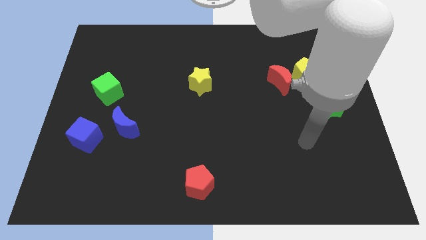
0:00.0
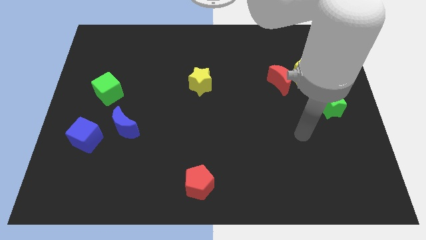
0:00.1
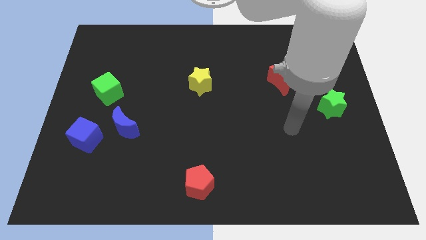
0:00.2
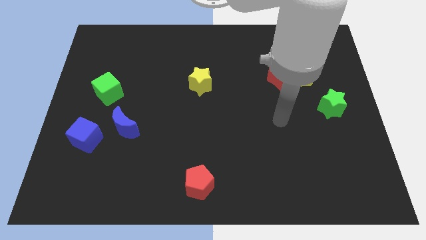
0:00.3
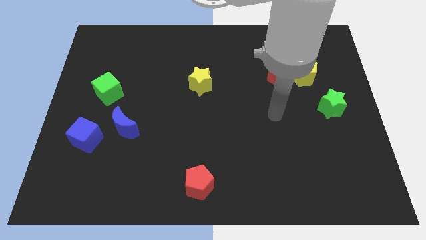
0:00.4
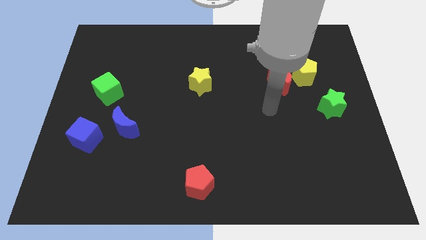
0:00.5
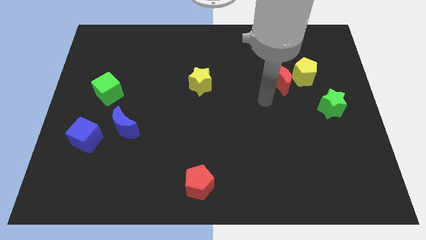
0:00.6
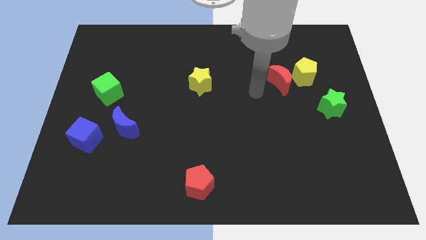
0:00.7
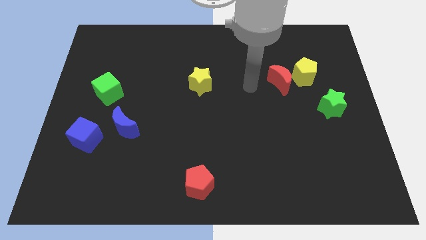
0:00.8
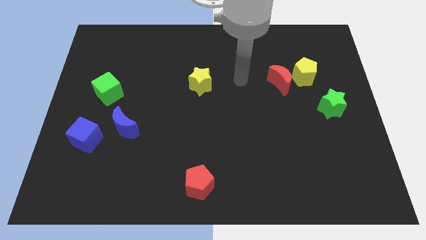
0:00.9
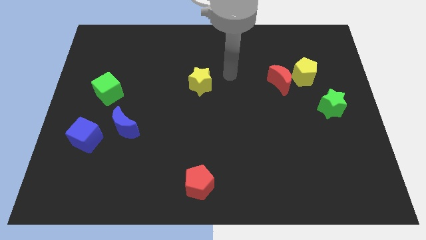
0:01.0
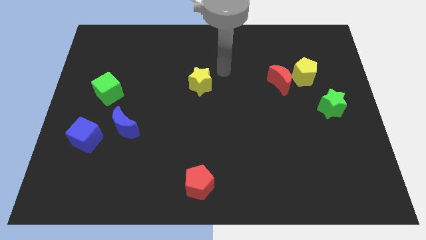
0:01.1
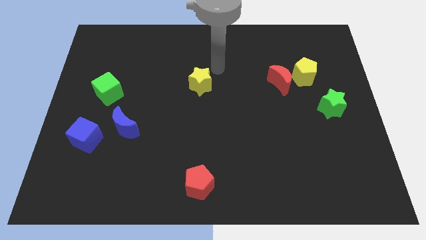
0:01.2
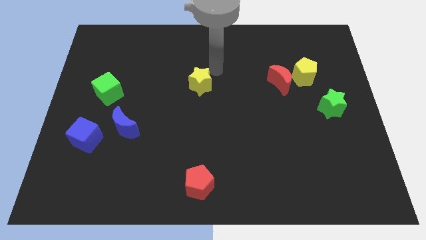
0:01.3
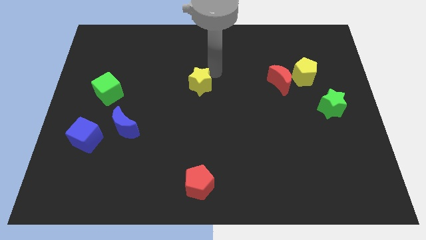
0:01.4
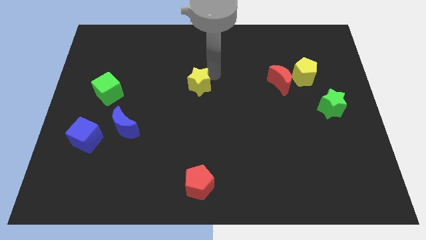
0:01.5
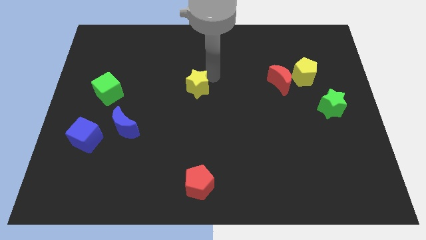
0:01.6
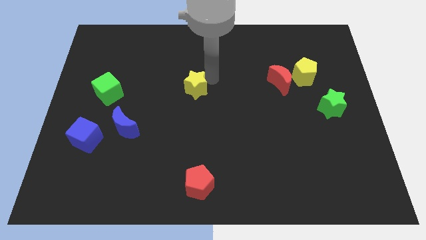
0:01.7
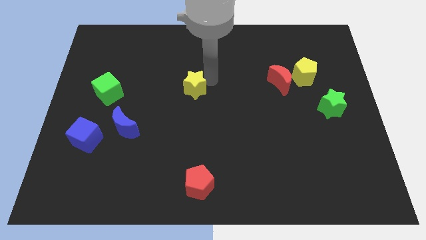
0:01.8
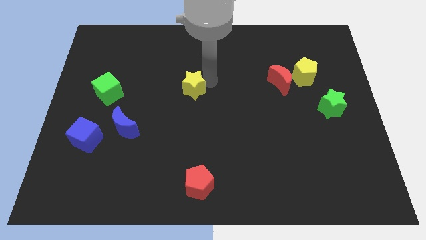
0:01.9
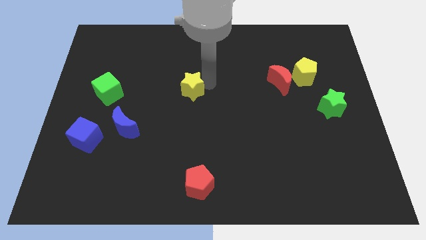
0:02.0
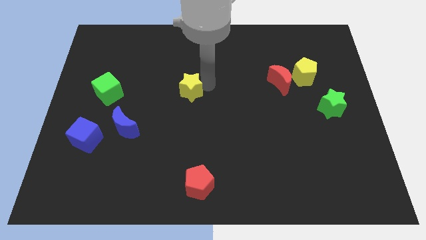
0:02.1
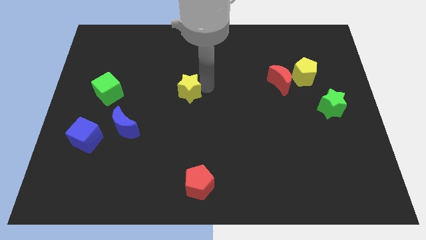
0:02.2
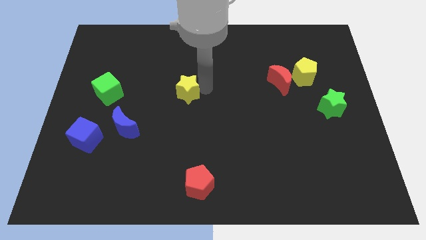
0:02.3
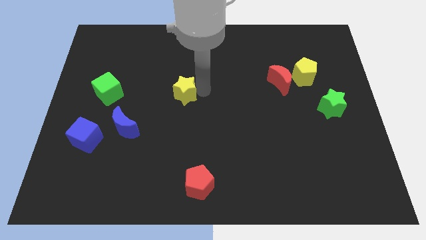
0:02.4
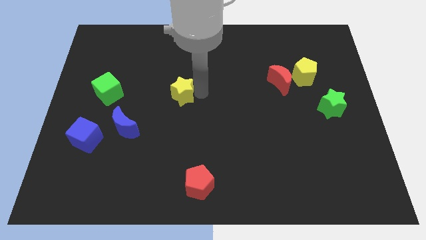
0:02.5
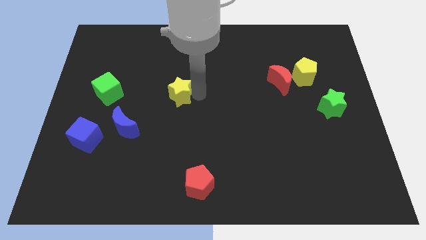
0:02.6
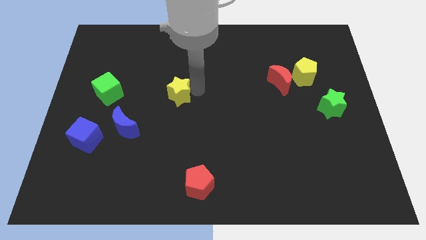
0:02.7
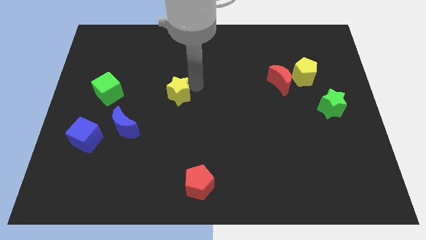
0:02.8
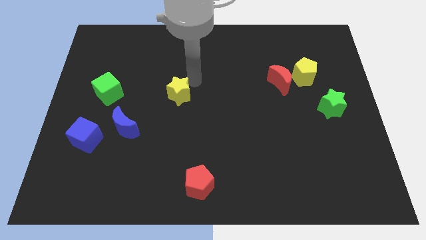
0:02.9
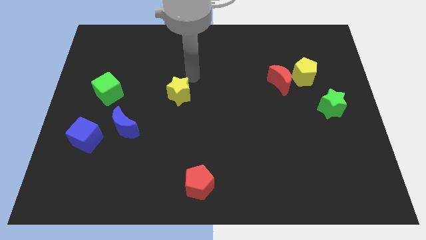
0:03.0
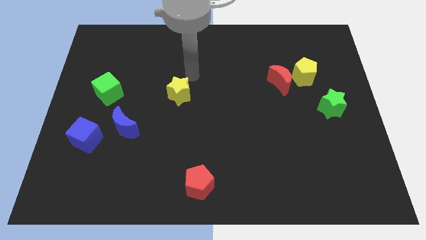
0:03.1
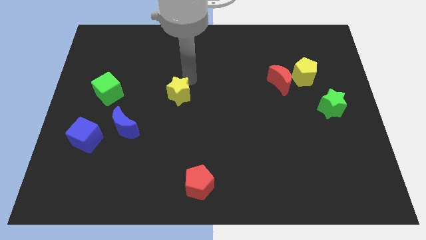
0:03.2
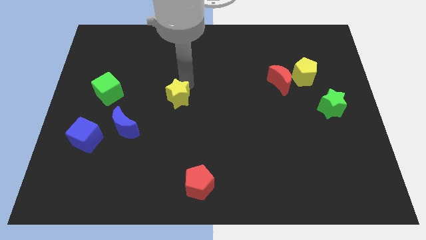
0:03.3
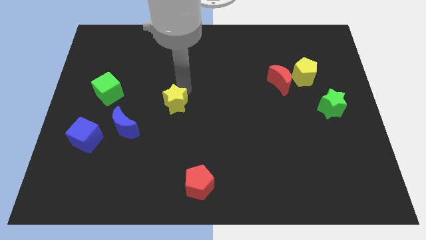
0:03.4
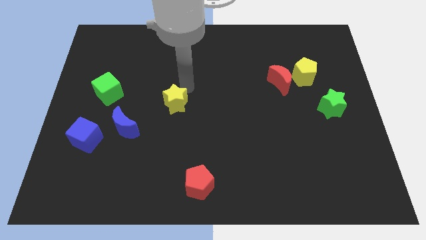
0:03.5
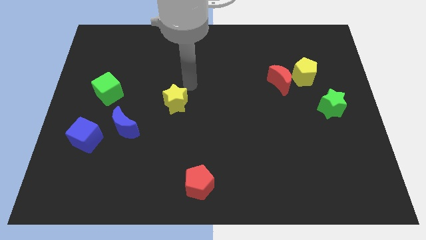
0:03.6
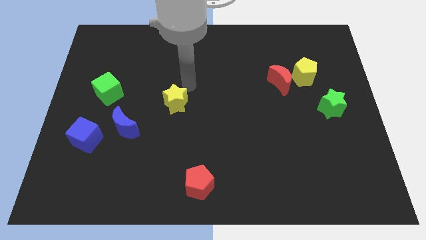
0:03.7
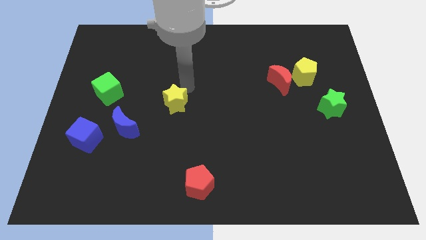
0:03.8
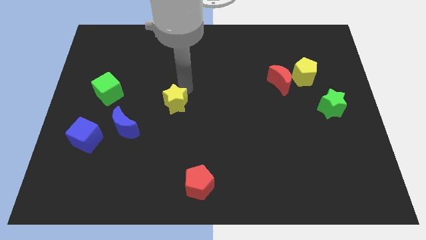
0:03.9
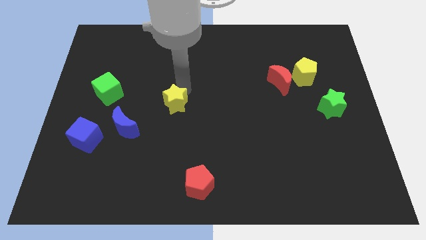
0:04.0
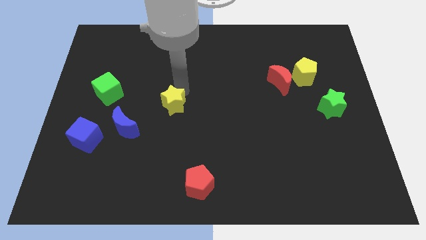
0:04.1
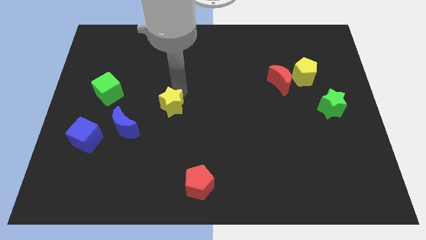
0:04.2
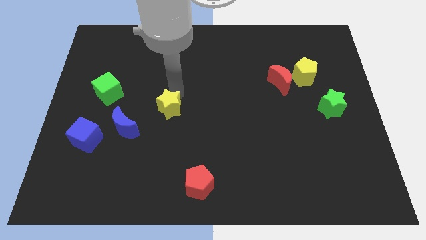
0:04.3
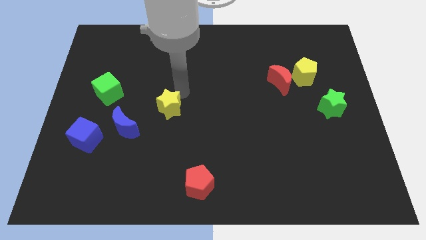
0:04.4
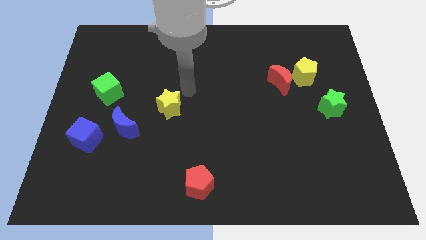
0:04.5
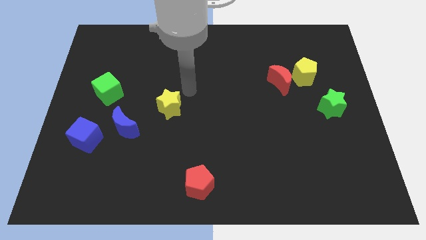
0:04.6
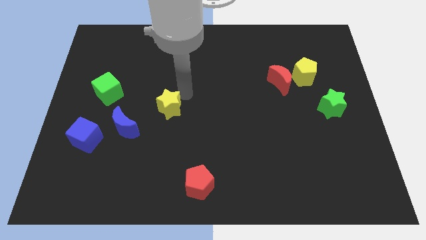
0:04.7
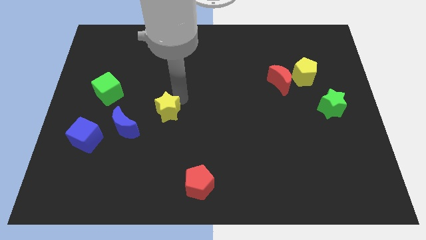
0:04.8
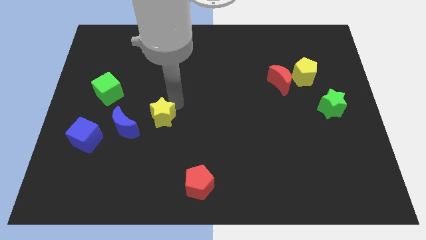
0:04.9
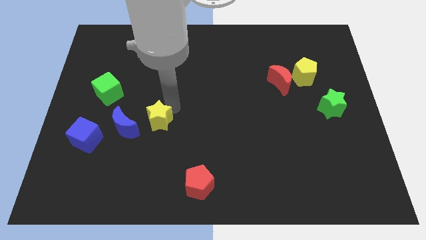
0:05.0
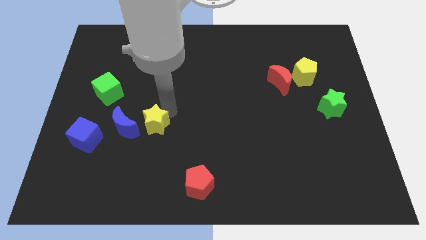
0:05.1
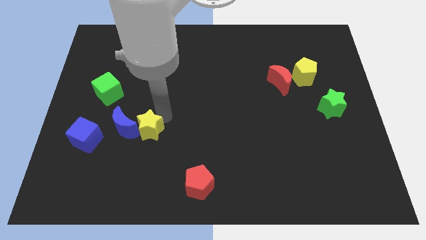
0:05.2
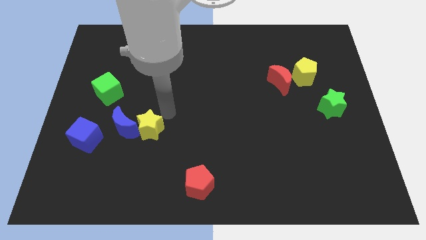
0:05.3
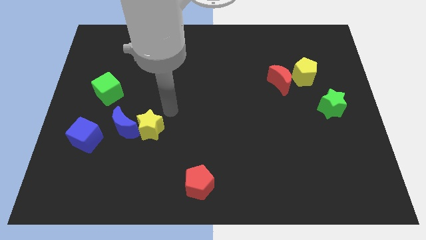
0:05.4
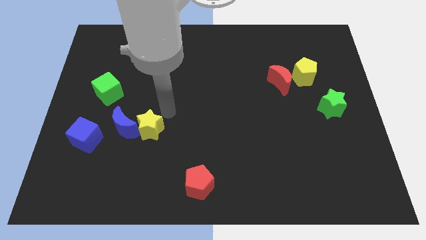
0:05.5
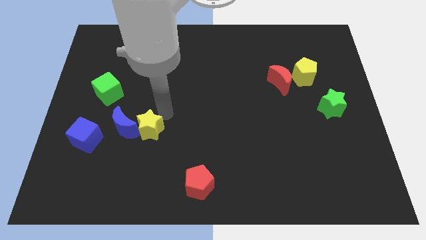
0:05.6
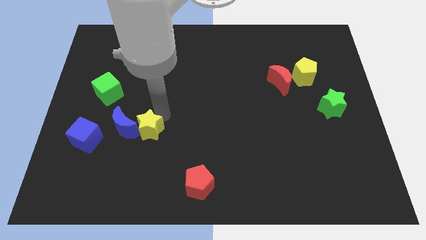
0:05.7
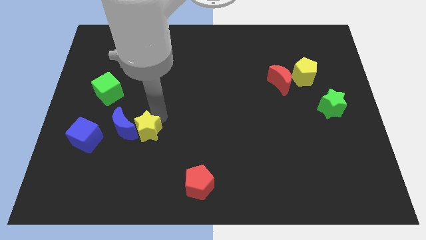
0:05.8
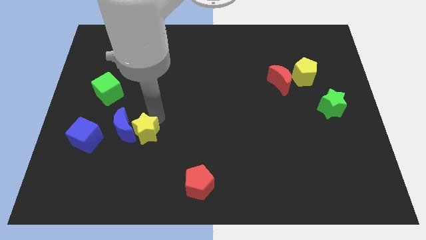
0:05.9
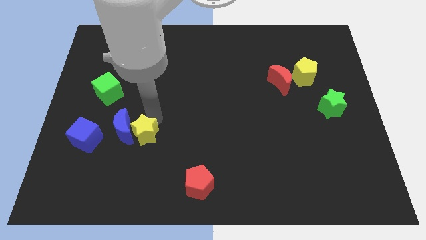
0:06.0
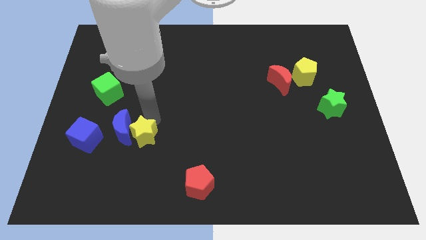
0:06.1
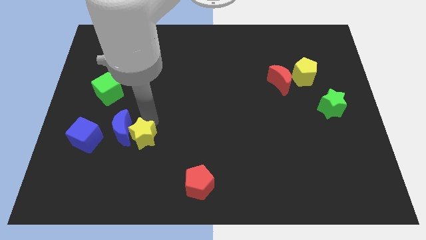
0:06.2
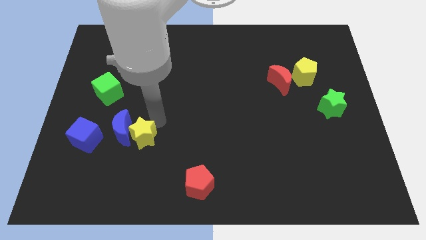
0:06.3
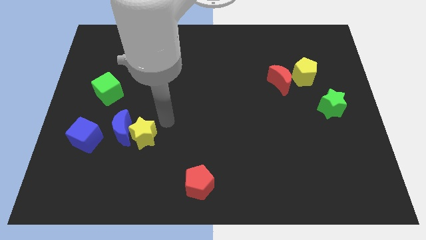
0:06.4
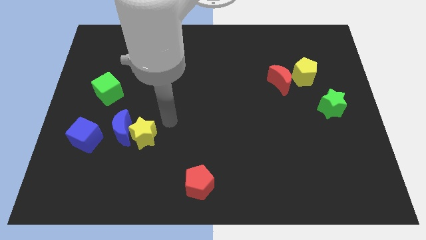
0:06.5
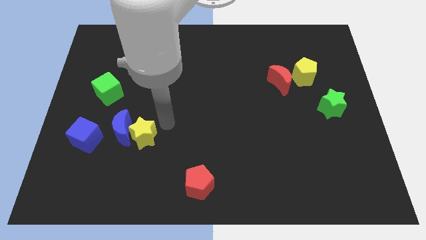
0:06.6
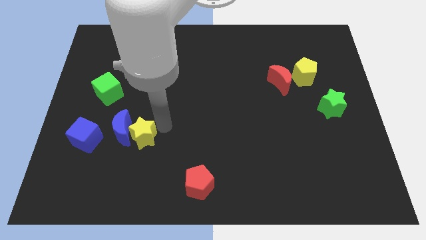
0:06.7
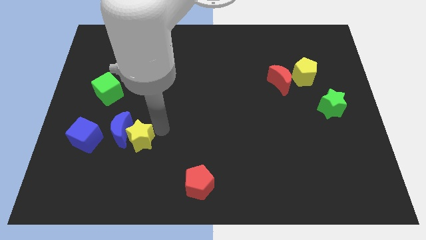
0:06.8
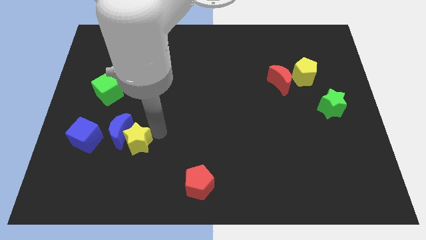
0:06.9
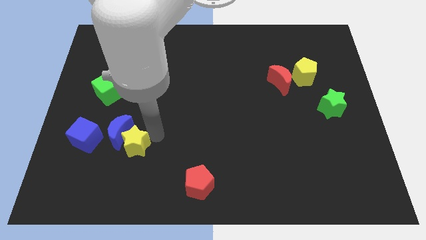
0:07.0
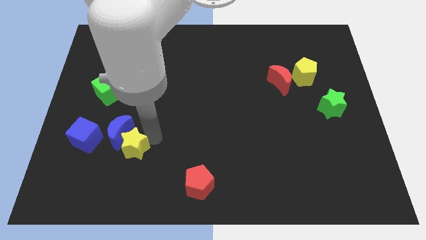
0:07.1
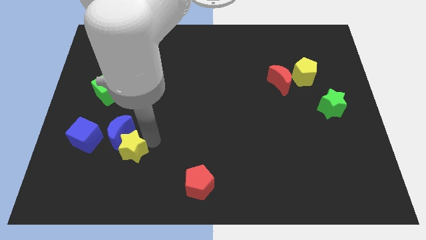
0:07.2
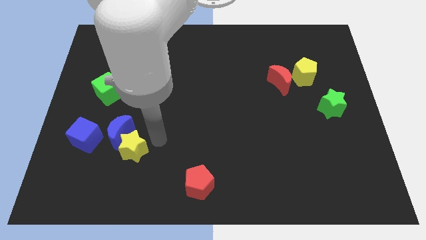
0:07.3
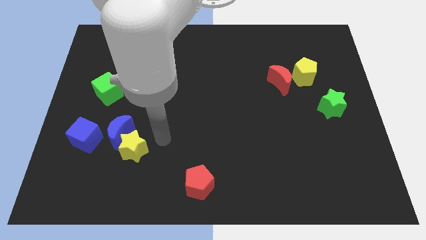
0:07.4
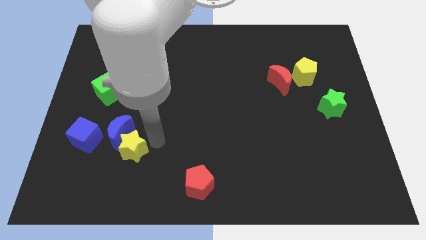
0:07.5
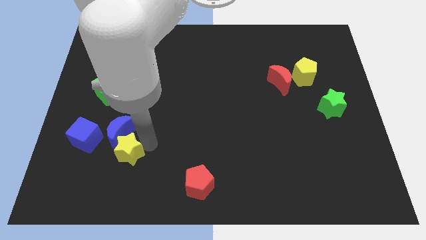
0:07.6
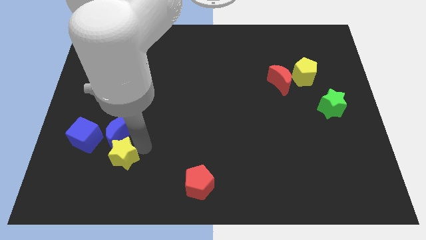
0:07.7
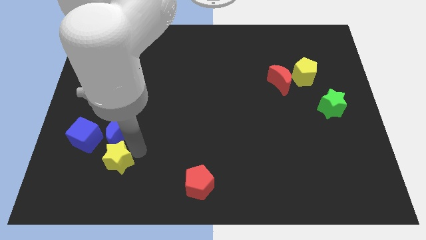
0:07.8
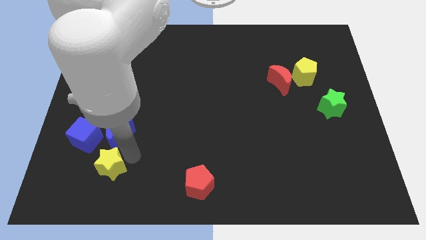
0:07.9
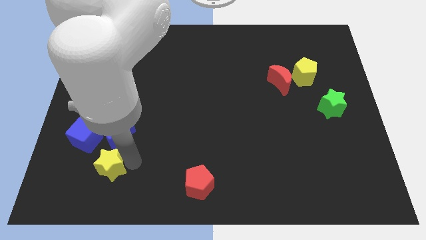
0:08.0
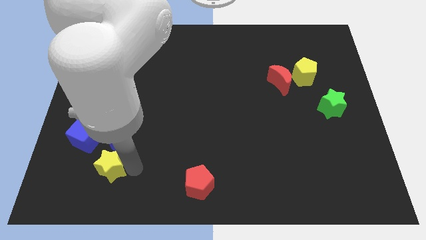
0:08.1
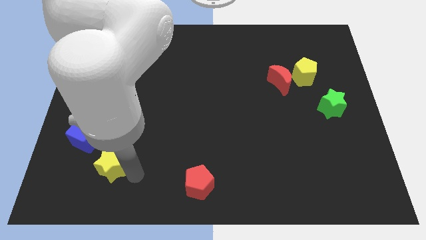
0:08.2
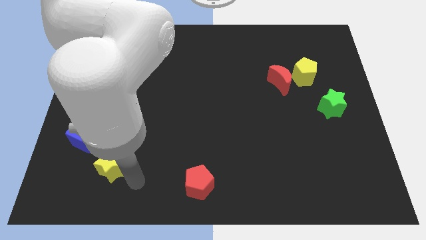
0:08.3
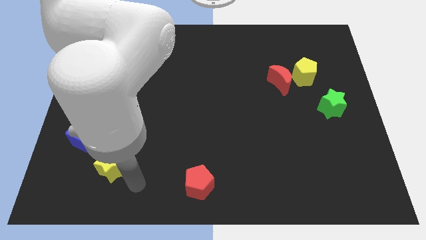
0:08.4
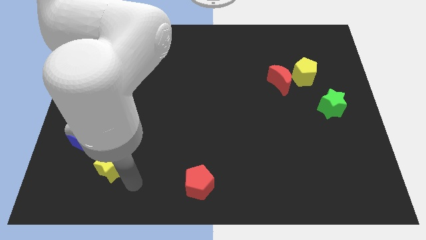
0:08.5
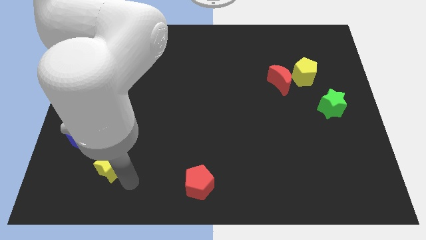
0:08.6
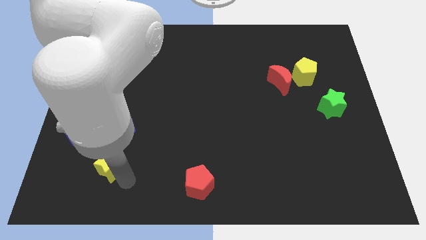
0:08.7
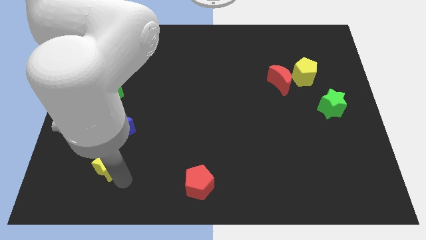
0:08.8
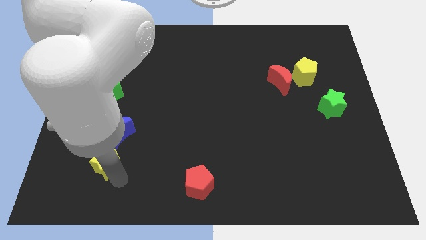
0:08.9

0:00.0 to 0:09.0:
slide the yellow star to the bottom left of the blue moon
